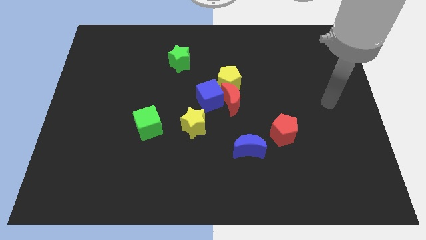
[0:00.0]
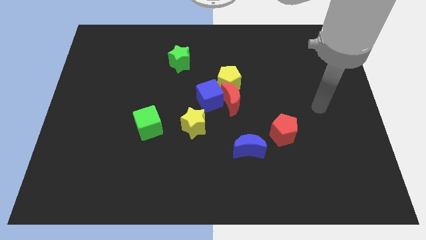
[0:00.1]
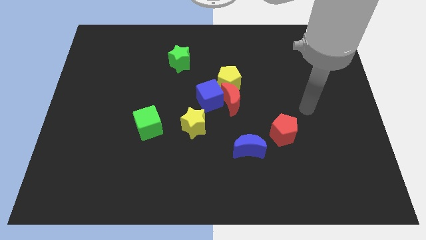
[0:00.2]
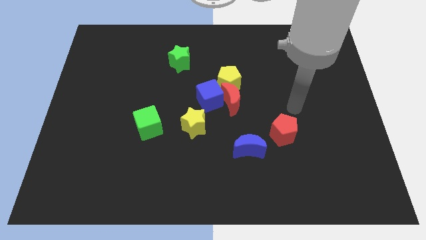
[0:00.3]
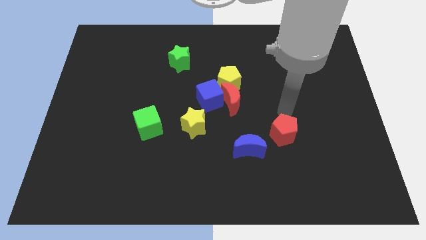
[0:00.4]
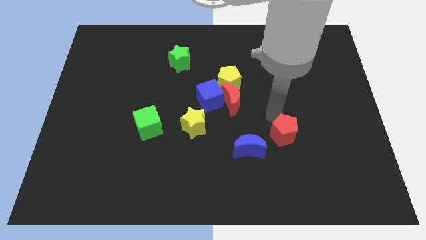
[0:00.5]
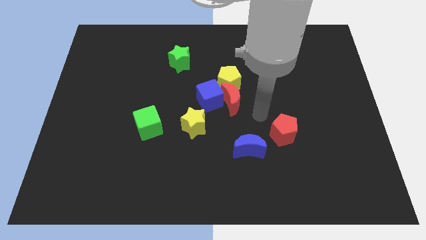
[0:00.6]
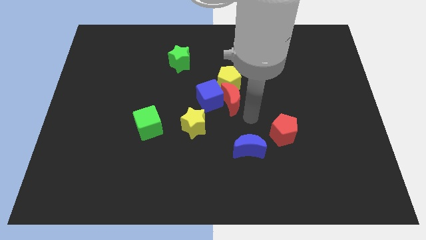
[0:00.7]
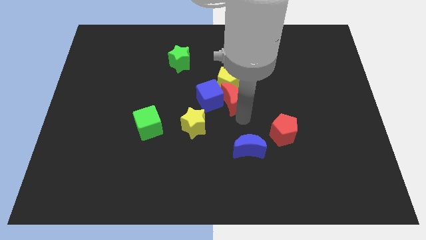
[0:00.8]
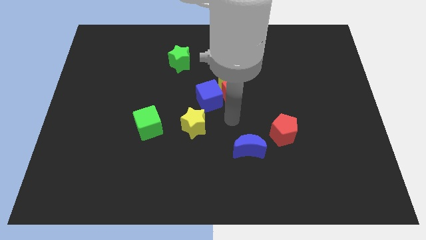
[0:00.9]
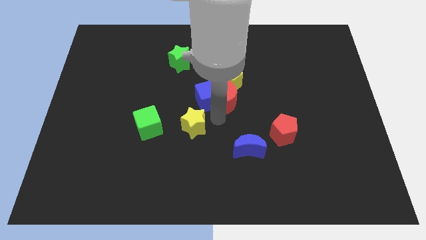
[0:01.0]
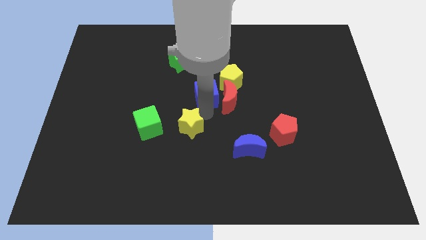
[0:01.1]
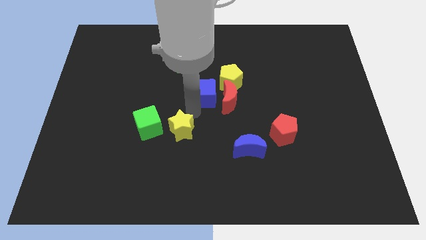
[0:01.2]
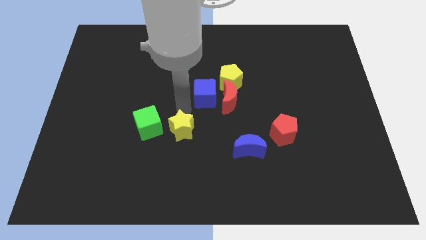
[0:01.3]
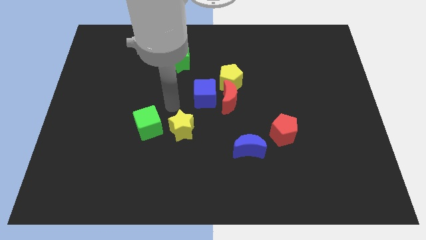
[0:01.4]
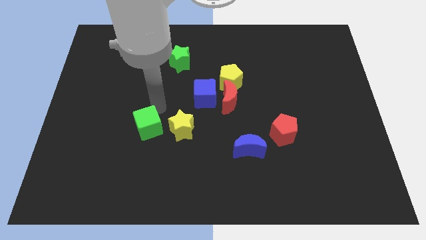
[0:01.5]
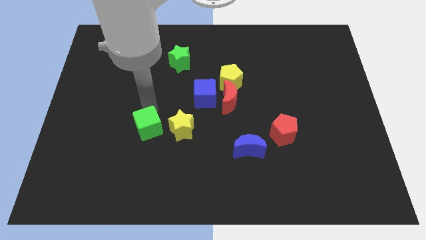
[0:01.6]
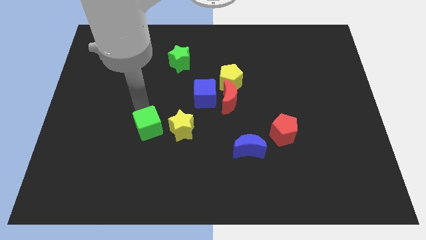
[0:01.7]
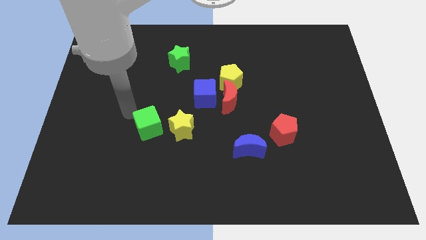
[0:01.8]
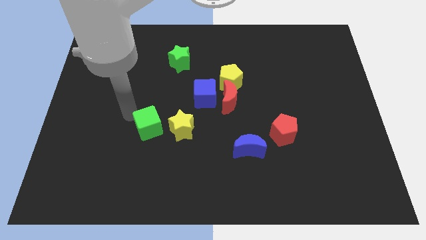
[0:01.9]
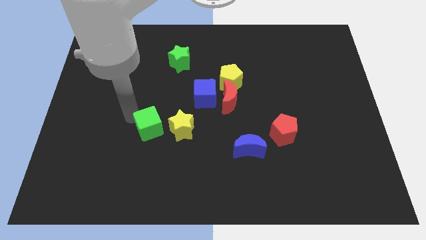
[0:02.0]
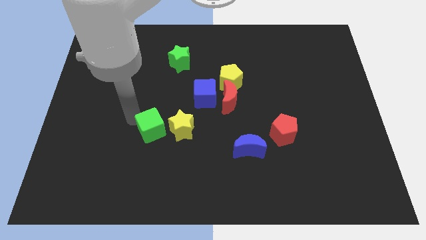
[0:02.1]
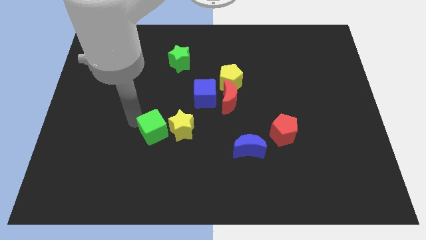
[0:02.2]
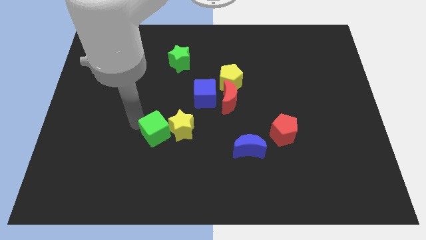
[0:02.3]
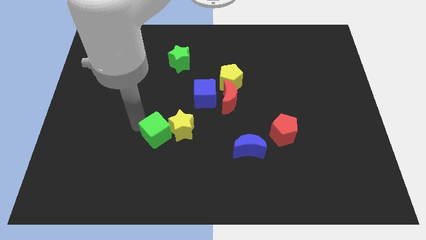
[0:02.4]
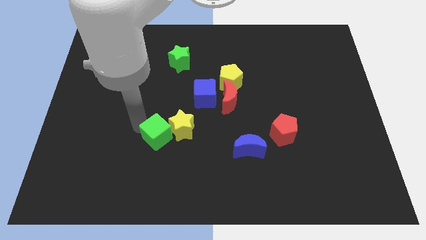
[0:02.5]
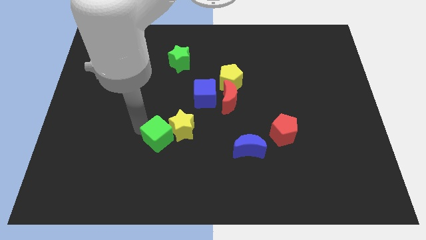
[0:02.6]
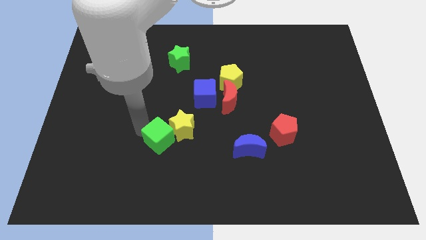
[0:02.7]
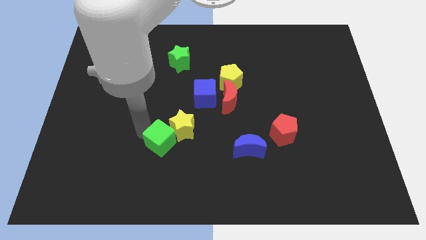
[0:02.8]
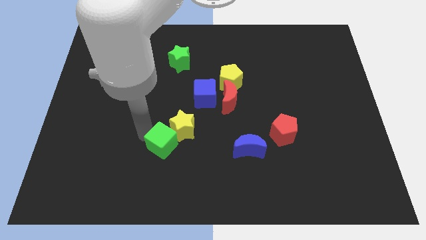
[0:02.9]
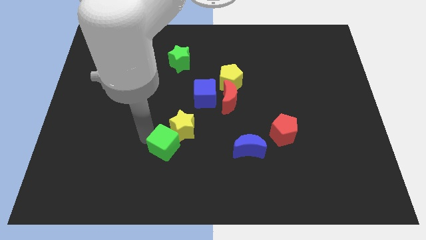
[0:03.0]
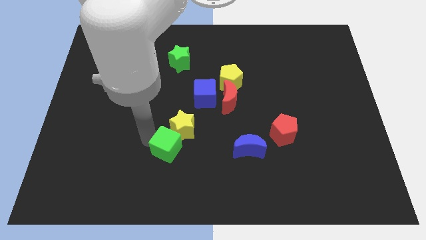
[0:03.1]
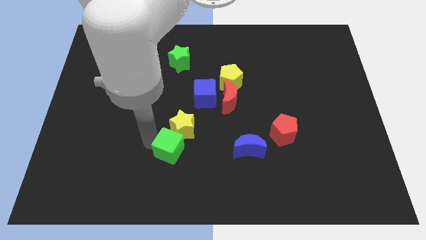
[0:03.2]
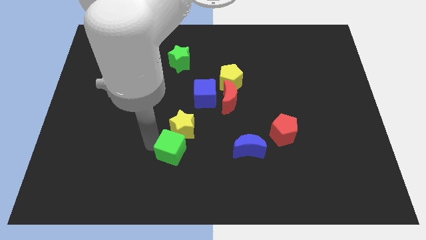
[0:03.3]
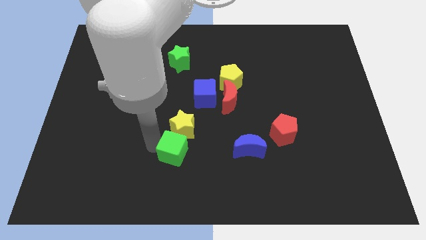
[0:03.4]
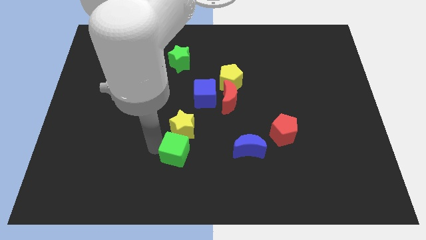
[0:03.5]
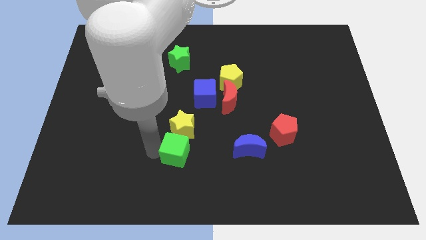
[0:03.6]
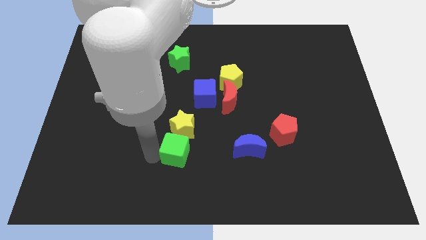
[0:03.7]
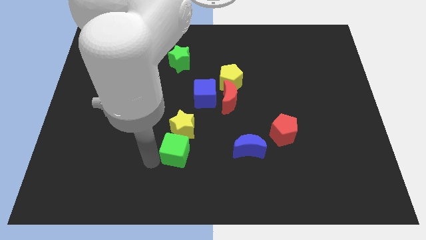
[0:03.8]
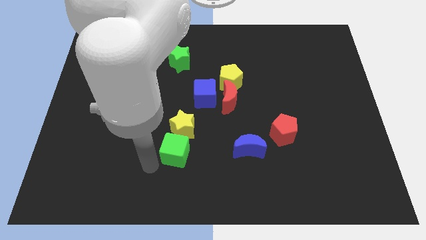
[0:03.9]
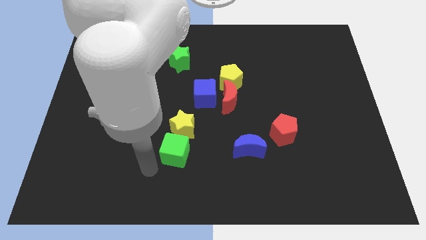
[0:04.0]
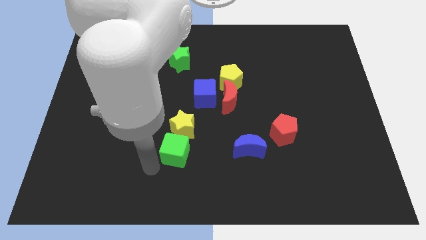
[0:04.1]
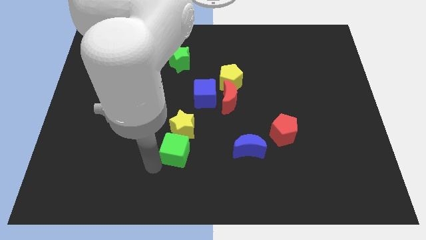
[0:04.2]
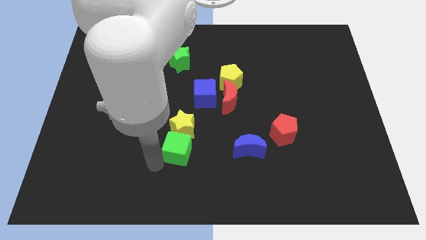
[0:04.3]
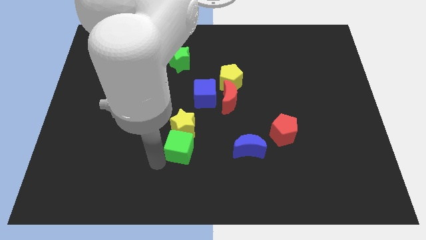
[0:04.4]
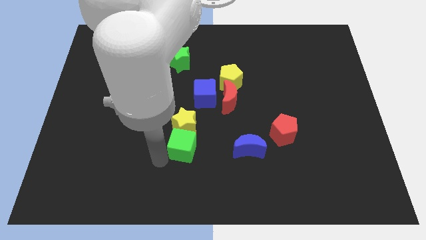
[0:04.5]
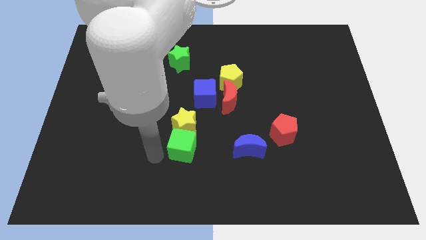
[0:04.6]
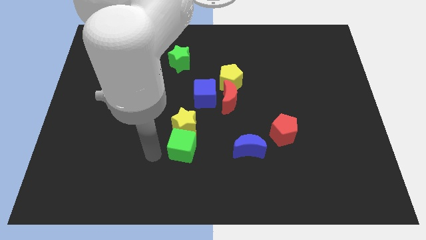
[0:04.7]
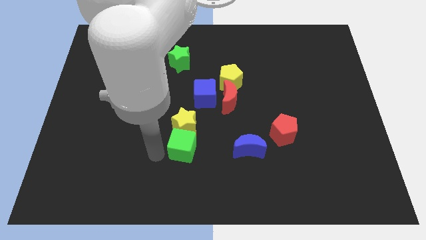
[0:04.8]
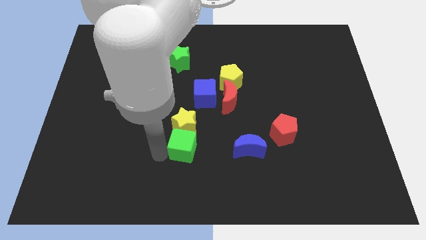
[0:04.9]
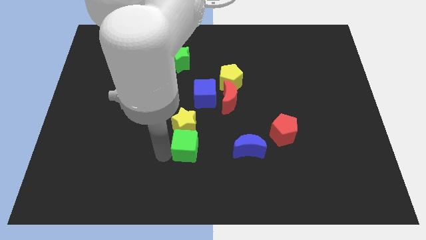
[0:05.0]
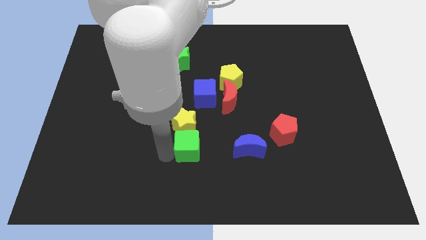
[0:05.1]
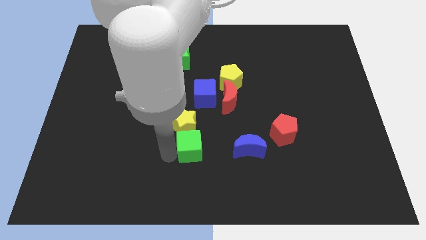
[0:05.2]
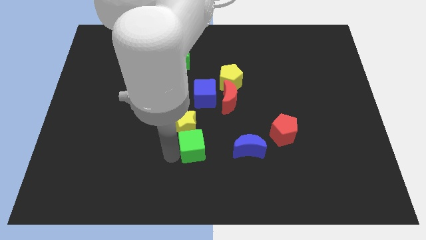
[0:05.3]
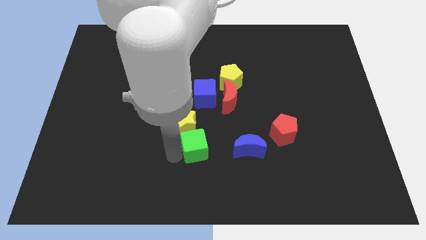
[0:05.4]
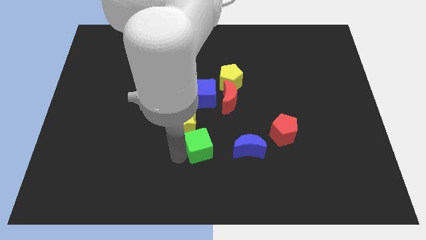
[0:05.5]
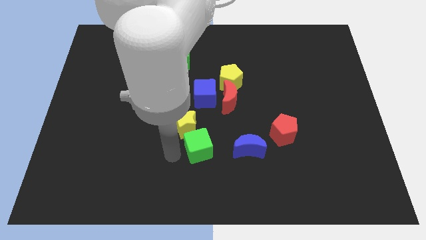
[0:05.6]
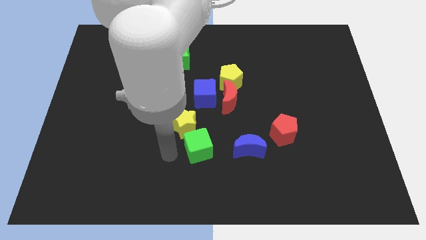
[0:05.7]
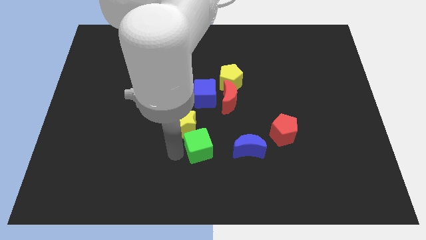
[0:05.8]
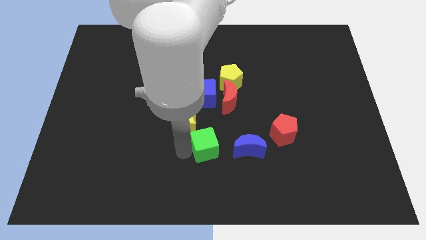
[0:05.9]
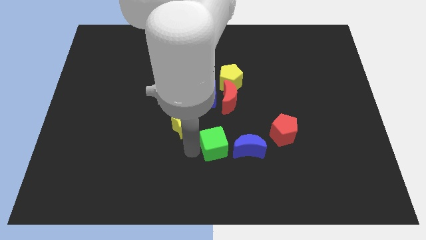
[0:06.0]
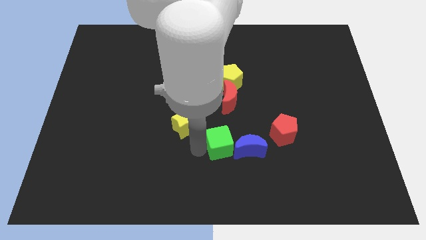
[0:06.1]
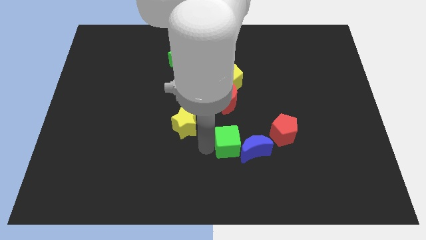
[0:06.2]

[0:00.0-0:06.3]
push the green cube close to the blue moon

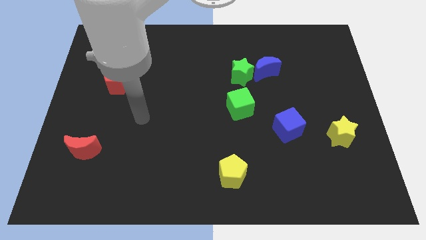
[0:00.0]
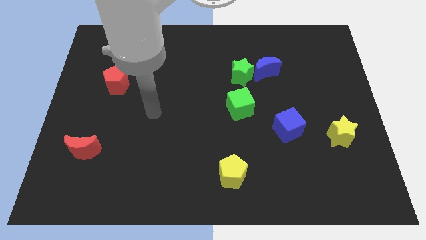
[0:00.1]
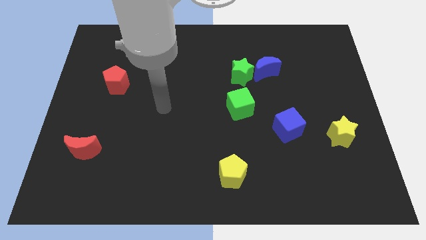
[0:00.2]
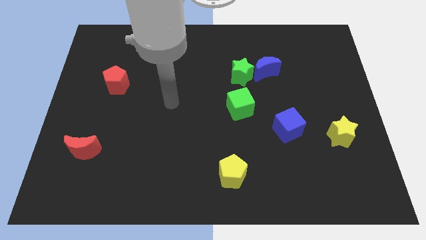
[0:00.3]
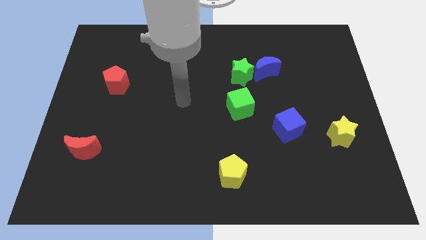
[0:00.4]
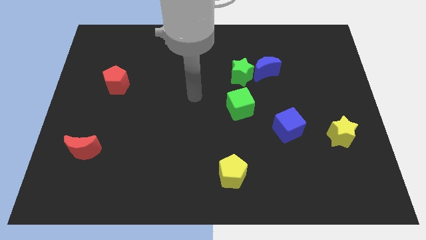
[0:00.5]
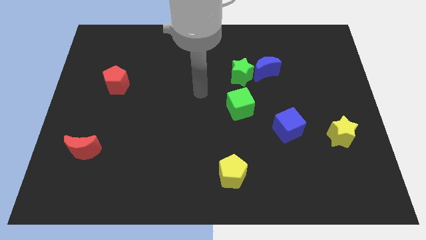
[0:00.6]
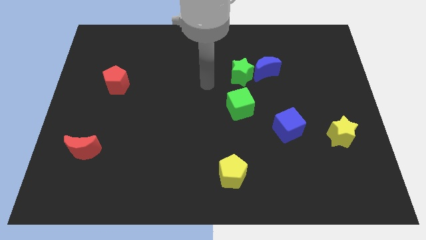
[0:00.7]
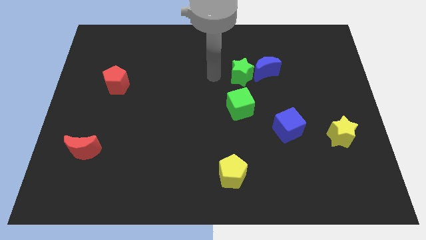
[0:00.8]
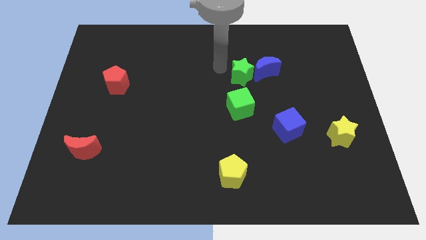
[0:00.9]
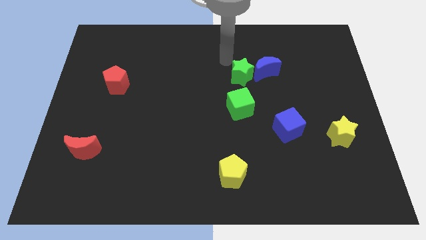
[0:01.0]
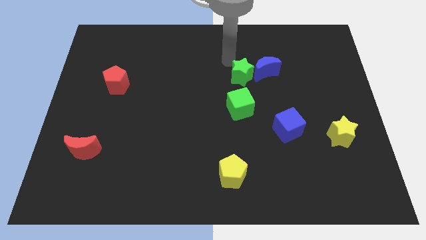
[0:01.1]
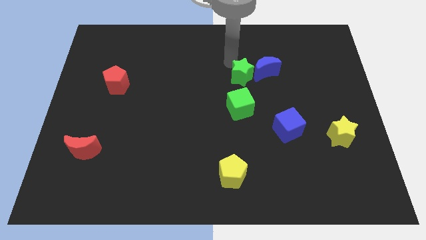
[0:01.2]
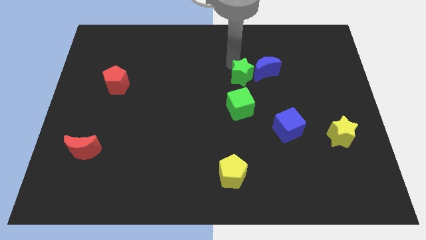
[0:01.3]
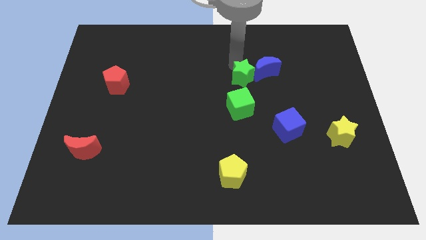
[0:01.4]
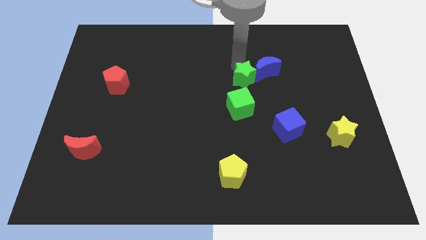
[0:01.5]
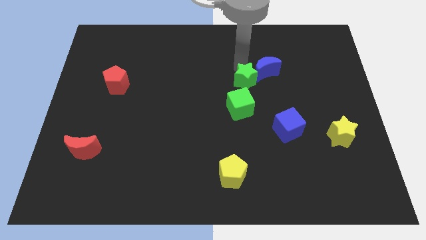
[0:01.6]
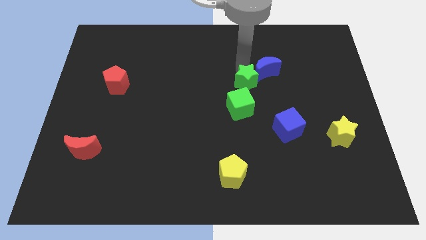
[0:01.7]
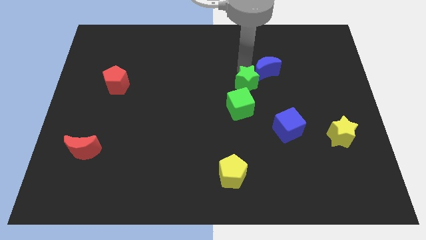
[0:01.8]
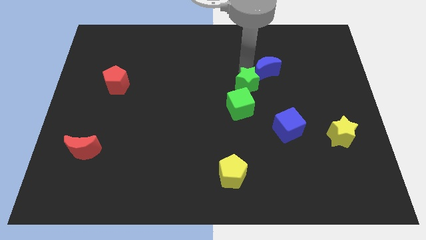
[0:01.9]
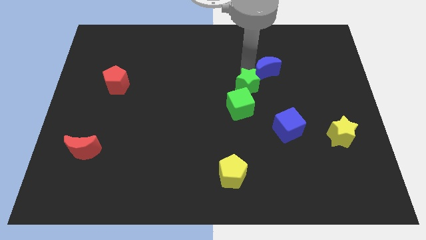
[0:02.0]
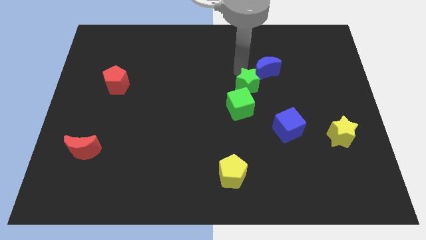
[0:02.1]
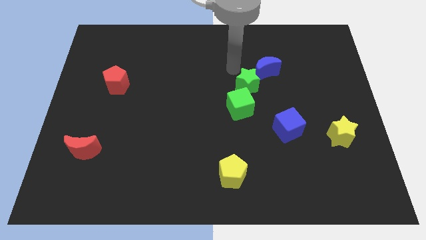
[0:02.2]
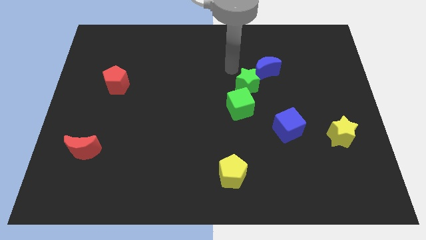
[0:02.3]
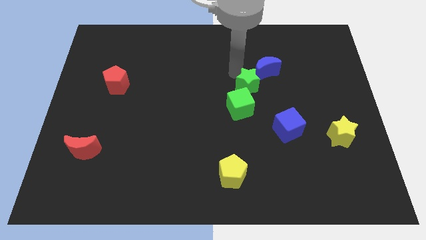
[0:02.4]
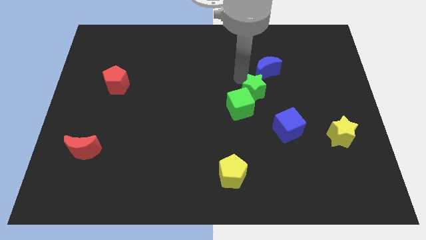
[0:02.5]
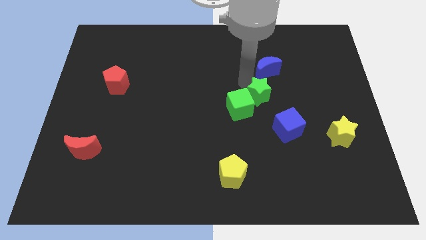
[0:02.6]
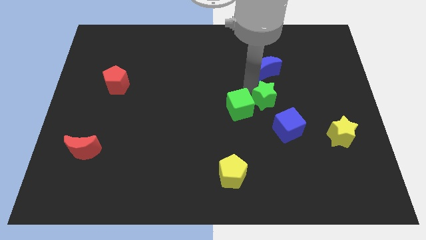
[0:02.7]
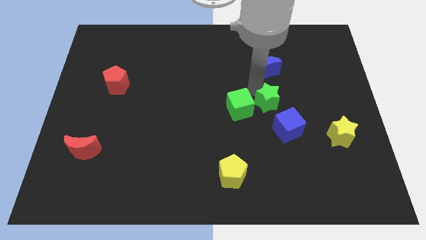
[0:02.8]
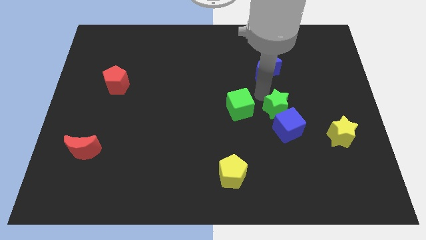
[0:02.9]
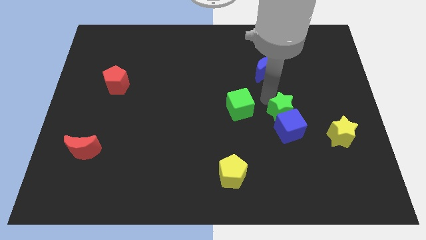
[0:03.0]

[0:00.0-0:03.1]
slide the green star towards the blue cube
